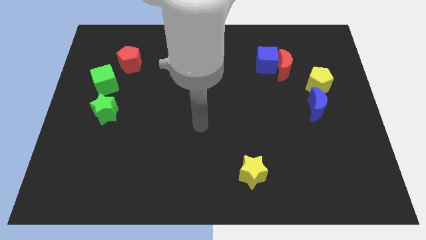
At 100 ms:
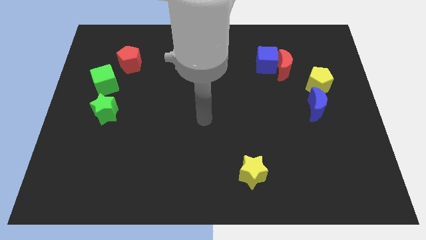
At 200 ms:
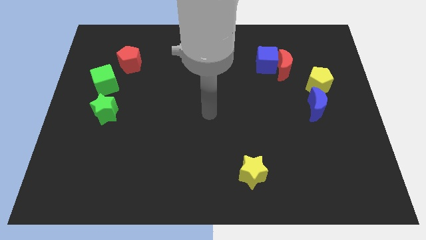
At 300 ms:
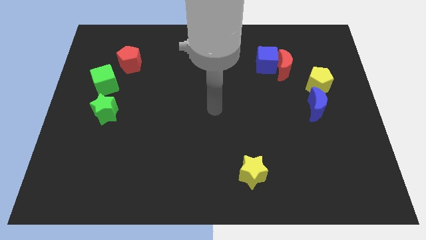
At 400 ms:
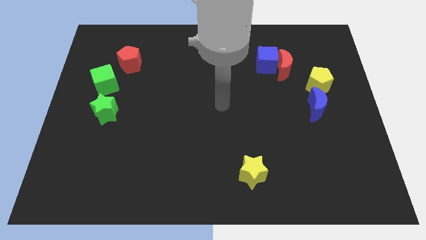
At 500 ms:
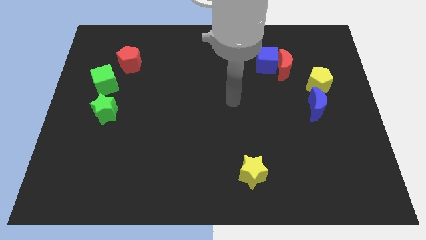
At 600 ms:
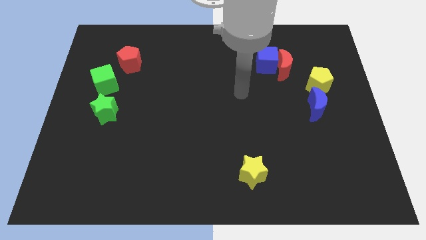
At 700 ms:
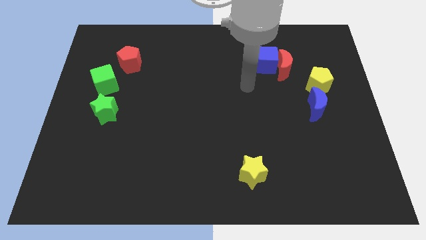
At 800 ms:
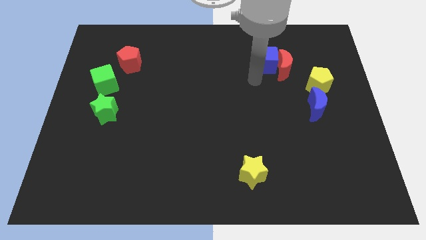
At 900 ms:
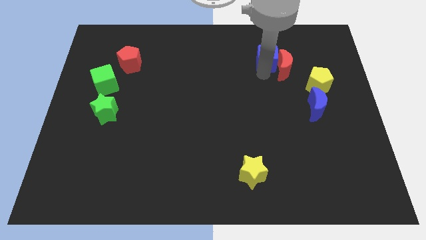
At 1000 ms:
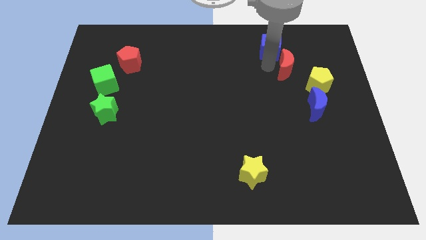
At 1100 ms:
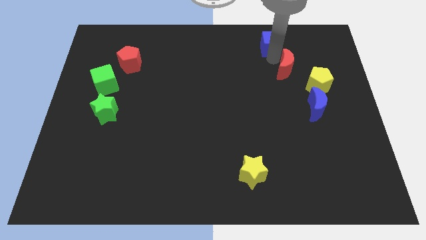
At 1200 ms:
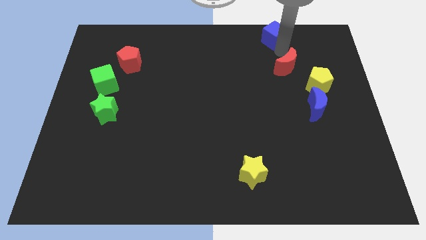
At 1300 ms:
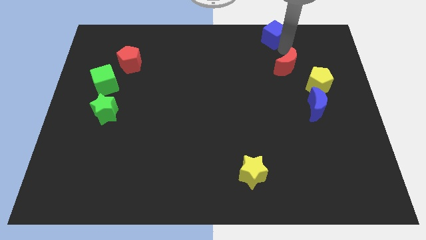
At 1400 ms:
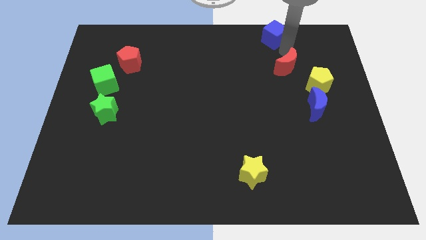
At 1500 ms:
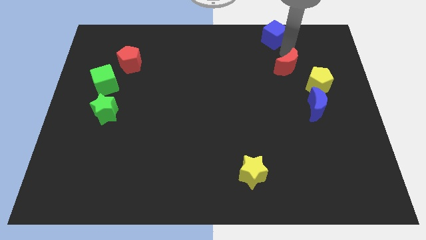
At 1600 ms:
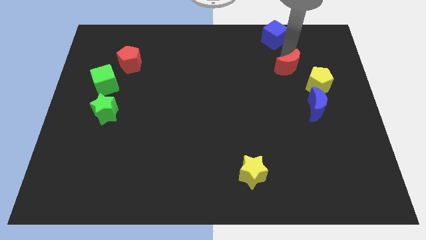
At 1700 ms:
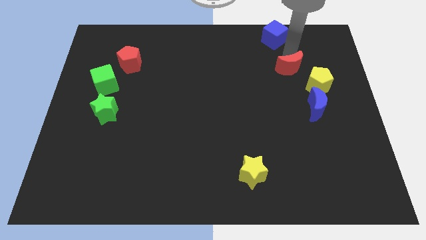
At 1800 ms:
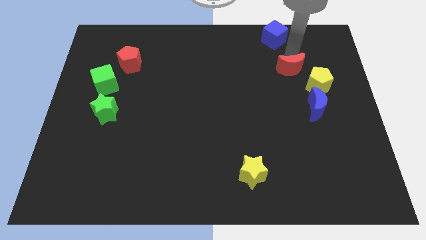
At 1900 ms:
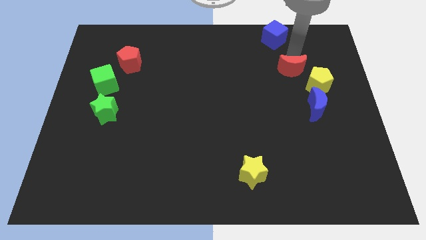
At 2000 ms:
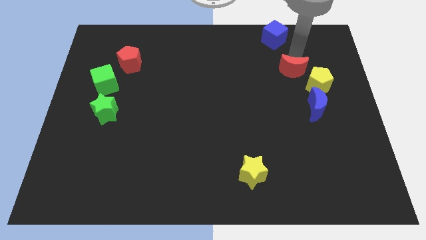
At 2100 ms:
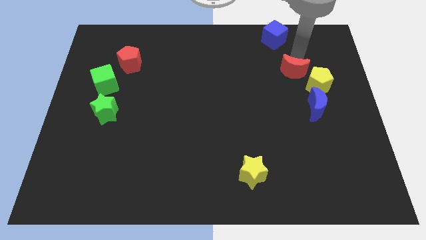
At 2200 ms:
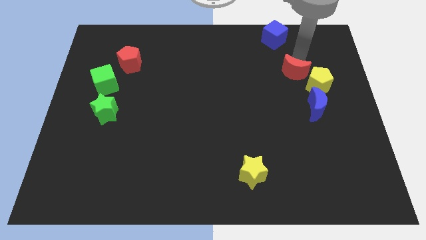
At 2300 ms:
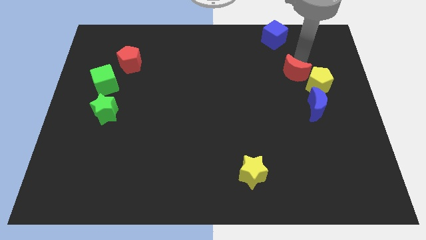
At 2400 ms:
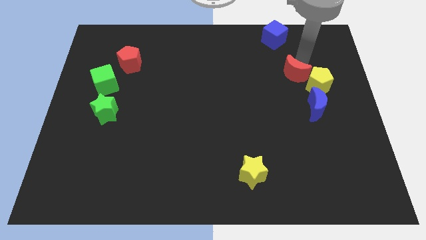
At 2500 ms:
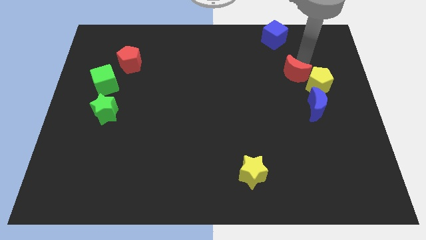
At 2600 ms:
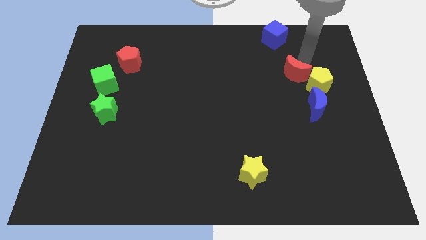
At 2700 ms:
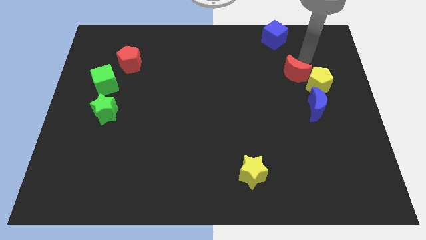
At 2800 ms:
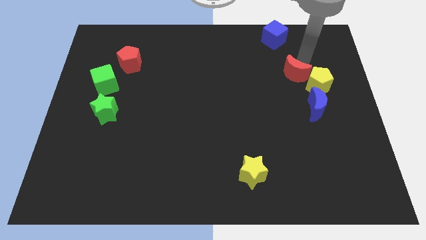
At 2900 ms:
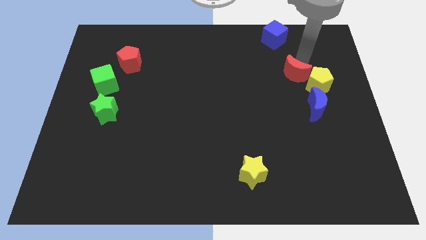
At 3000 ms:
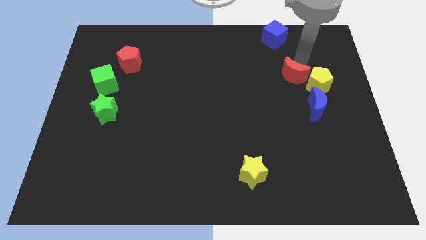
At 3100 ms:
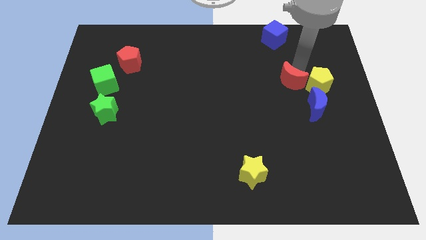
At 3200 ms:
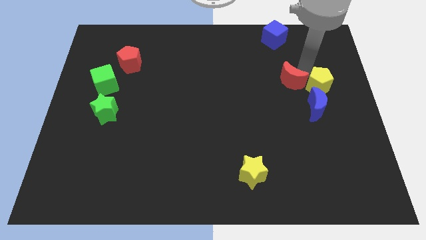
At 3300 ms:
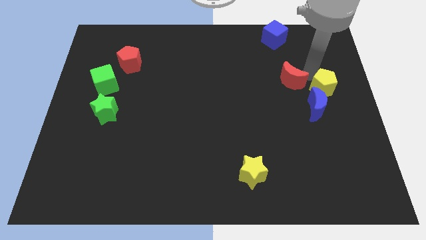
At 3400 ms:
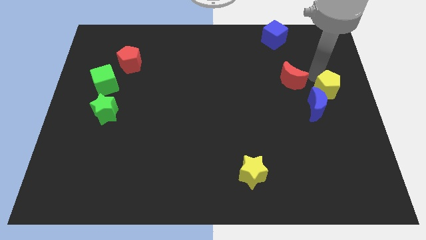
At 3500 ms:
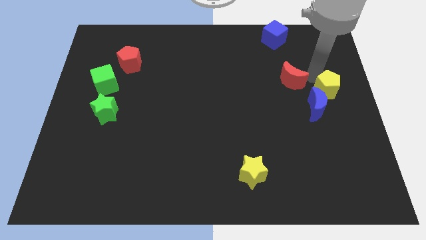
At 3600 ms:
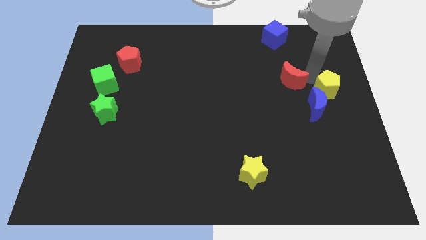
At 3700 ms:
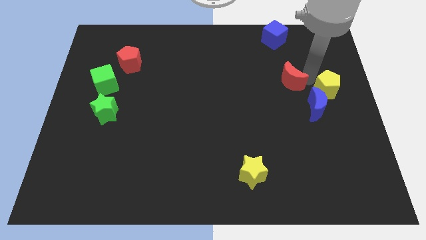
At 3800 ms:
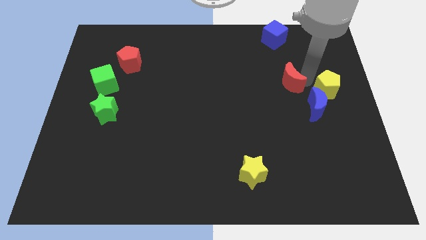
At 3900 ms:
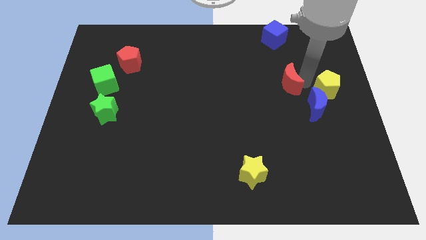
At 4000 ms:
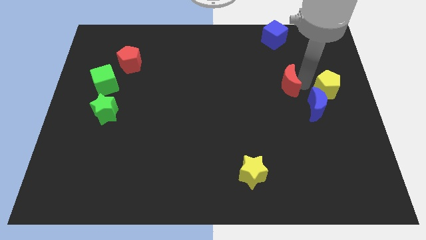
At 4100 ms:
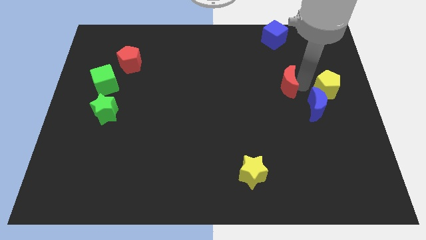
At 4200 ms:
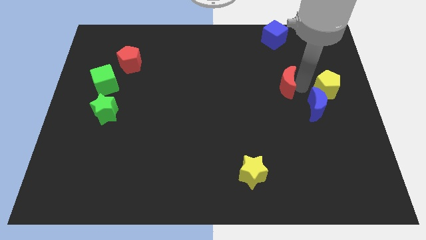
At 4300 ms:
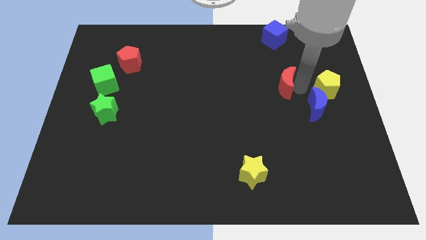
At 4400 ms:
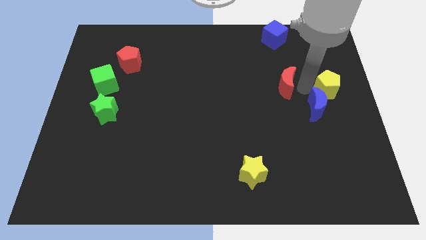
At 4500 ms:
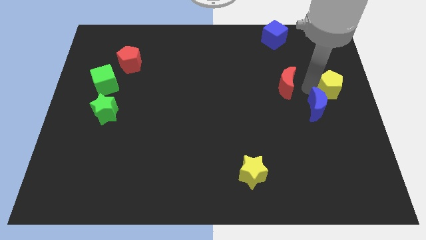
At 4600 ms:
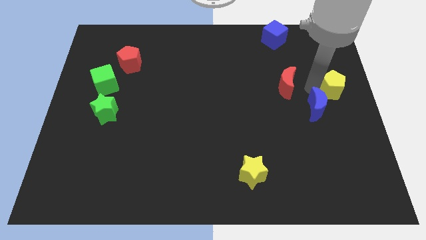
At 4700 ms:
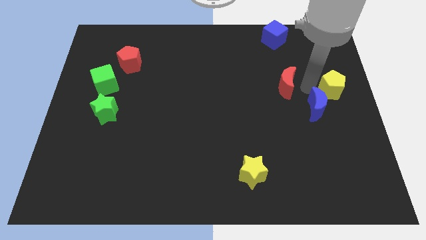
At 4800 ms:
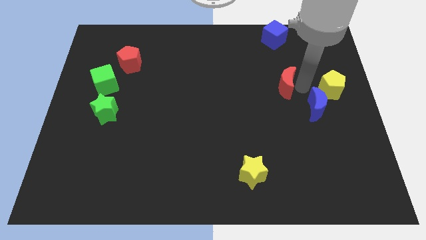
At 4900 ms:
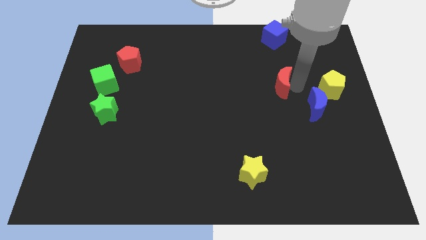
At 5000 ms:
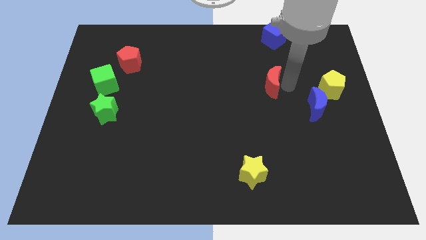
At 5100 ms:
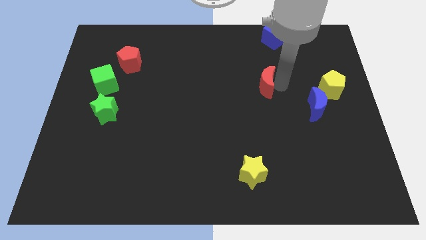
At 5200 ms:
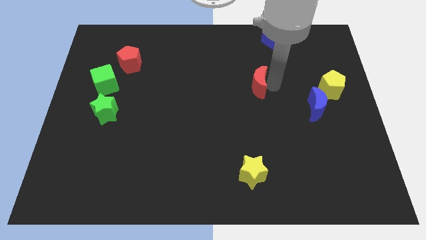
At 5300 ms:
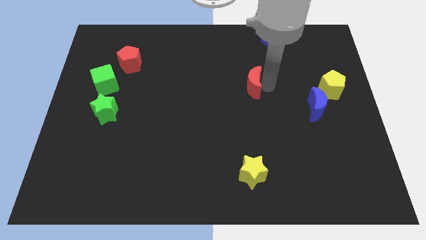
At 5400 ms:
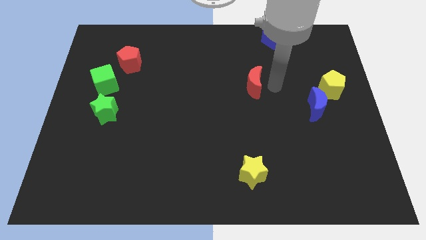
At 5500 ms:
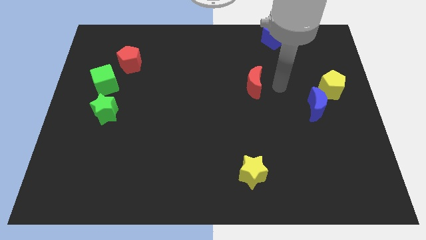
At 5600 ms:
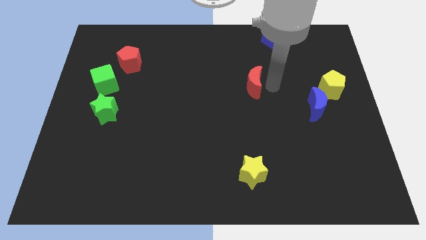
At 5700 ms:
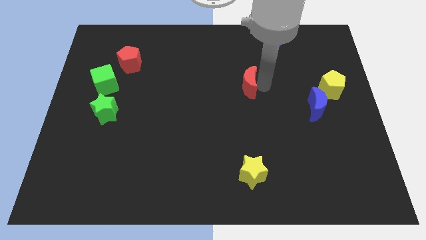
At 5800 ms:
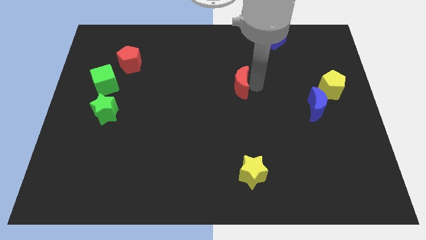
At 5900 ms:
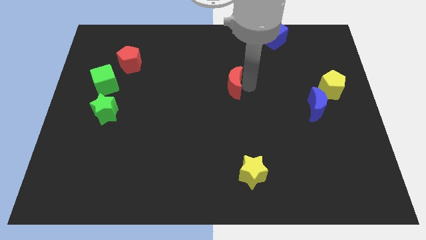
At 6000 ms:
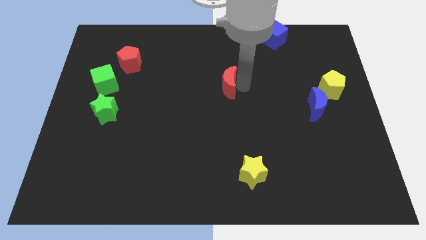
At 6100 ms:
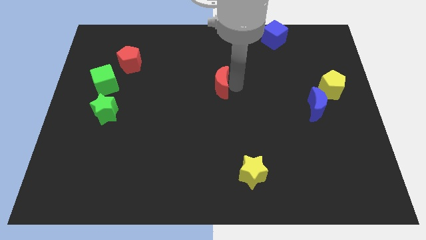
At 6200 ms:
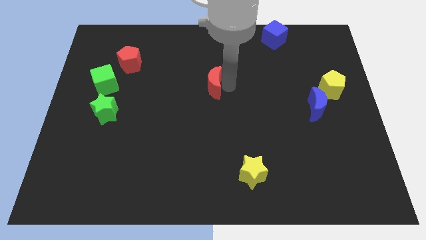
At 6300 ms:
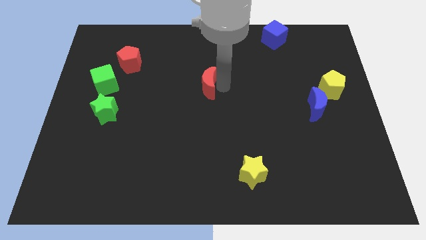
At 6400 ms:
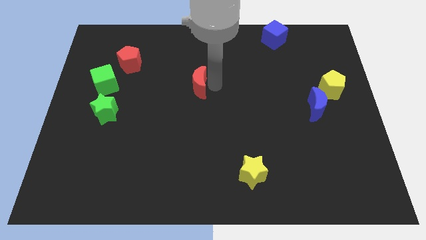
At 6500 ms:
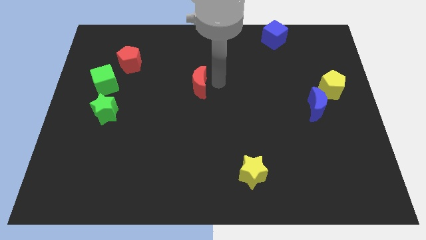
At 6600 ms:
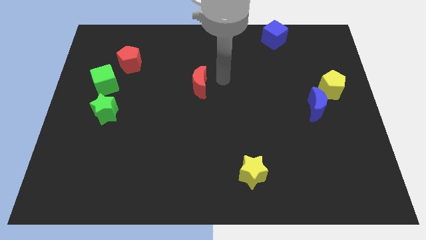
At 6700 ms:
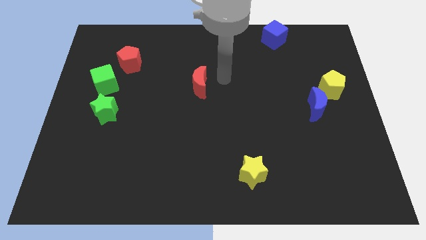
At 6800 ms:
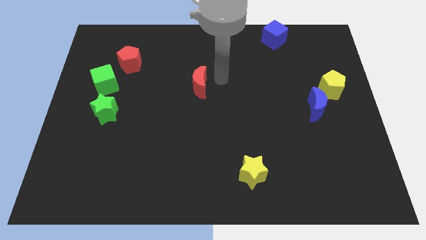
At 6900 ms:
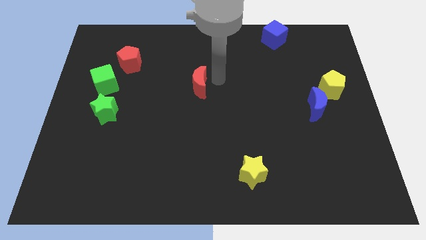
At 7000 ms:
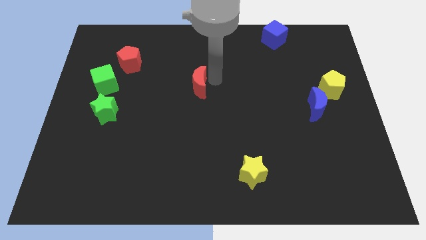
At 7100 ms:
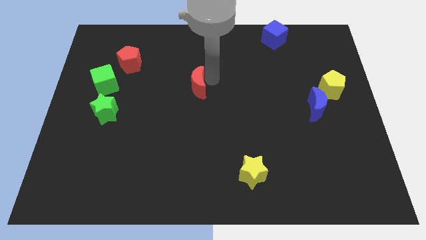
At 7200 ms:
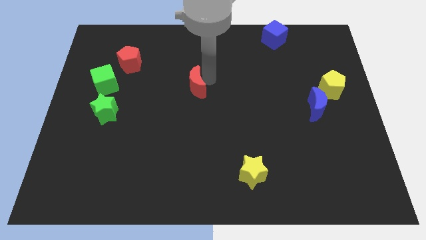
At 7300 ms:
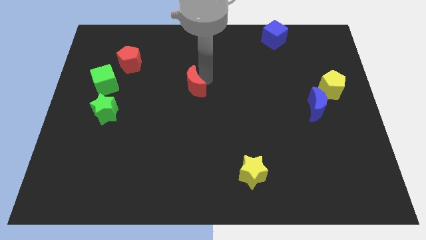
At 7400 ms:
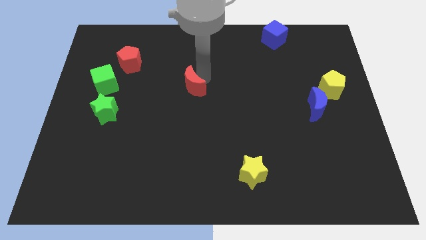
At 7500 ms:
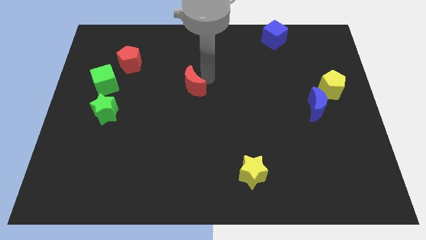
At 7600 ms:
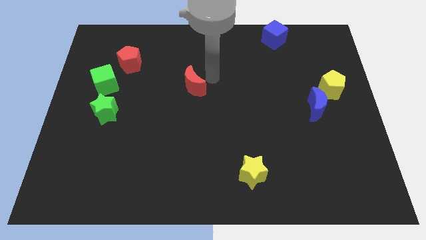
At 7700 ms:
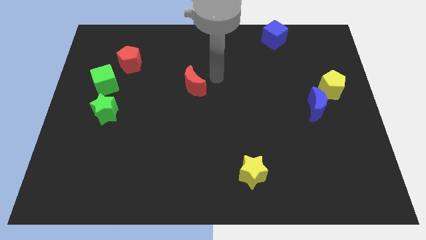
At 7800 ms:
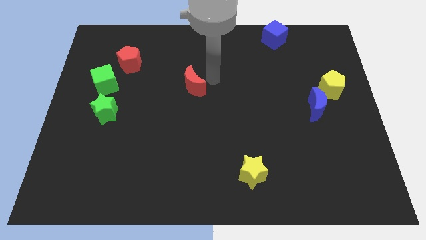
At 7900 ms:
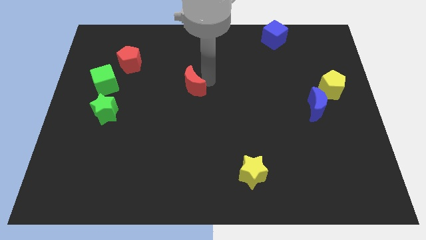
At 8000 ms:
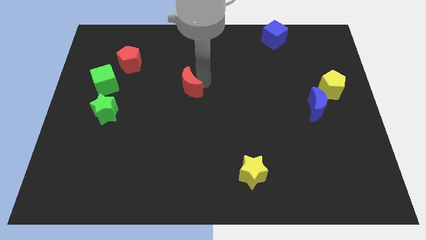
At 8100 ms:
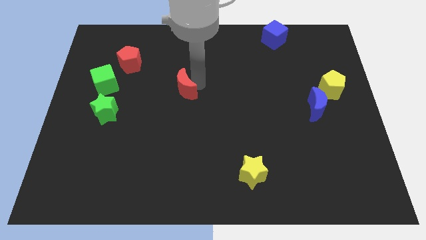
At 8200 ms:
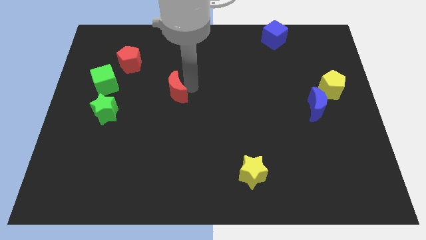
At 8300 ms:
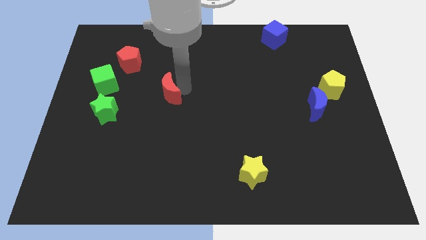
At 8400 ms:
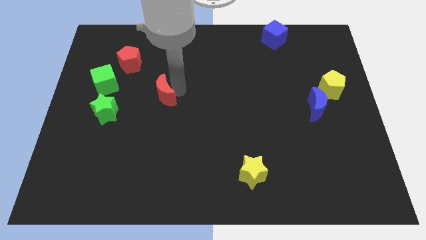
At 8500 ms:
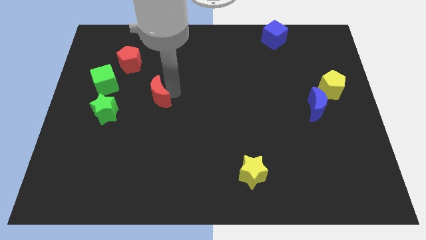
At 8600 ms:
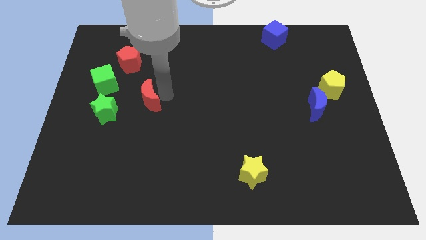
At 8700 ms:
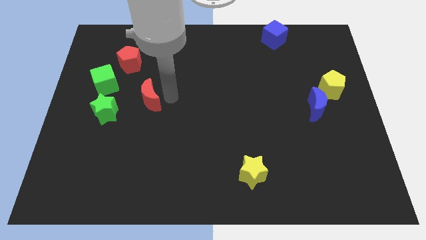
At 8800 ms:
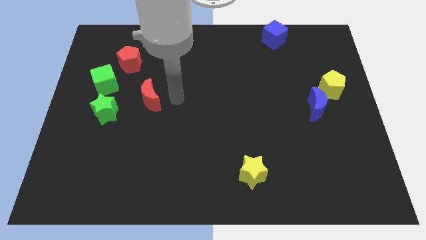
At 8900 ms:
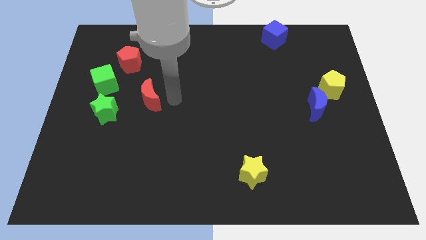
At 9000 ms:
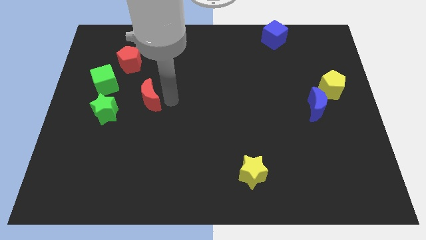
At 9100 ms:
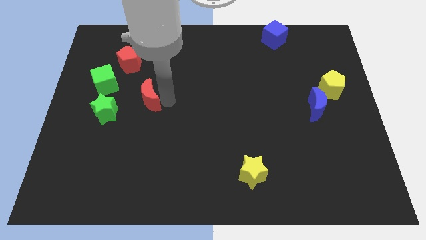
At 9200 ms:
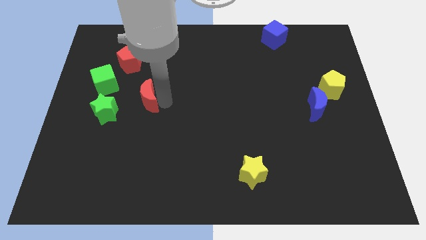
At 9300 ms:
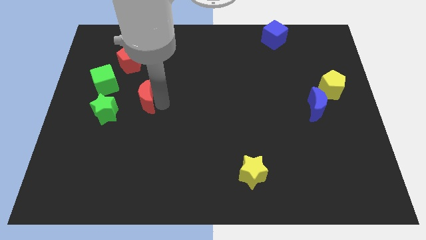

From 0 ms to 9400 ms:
put the red moon diagonally down and to the right of the green cube
